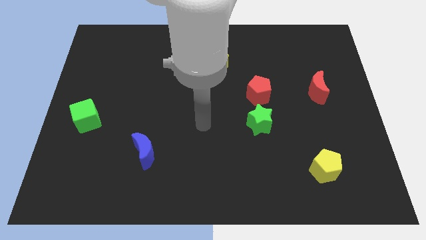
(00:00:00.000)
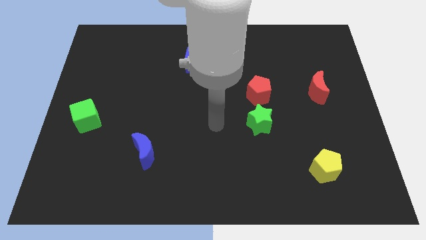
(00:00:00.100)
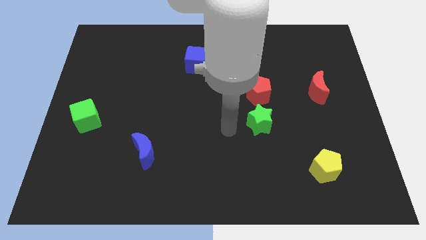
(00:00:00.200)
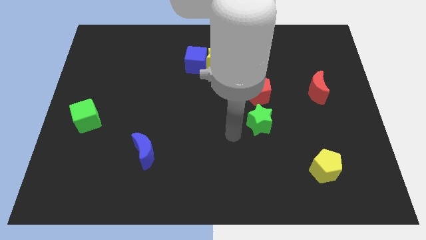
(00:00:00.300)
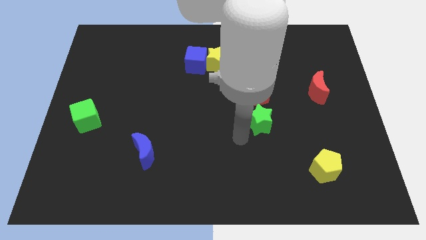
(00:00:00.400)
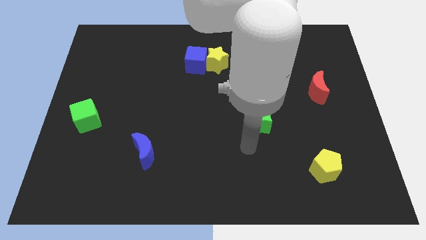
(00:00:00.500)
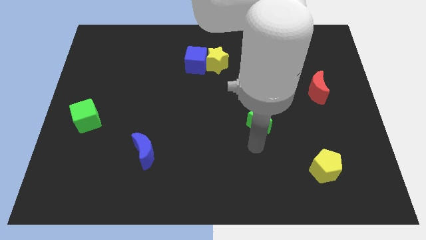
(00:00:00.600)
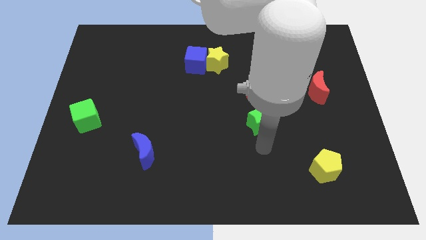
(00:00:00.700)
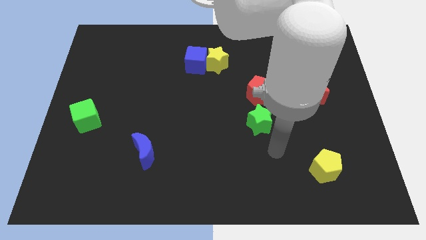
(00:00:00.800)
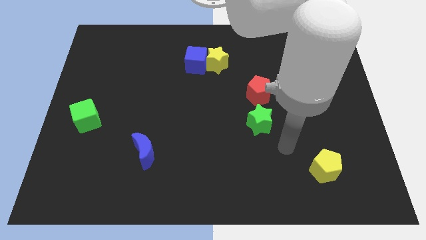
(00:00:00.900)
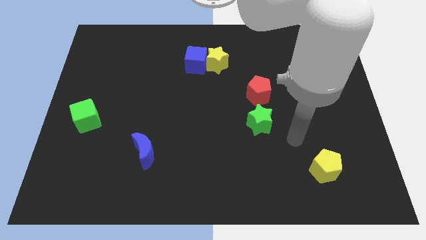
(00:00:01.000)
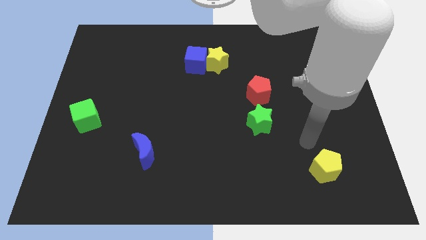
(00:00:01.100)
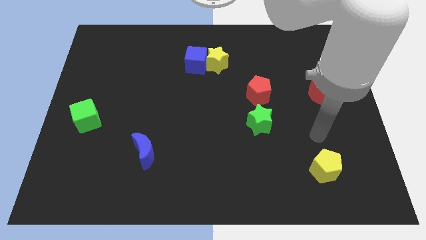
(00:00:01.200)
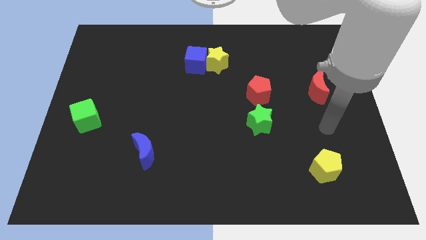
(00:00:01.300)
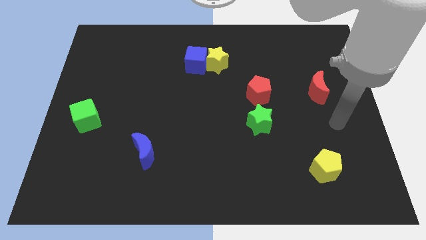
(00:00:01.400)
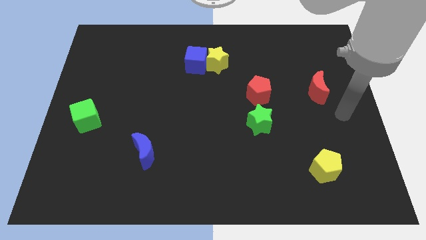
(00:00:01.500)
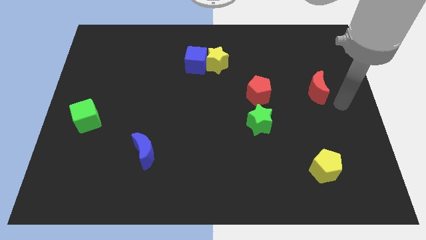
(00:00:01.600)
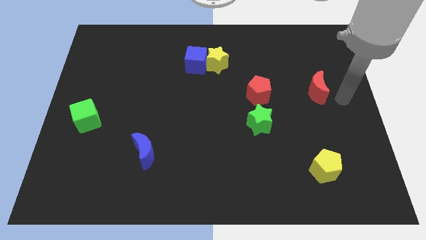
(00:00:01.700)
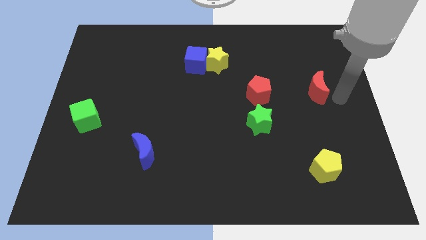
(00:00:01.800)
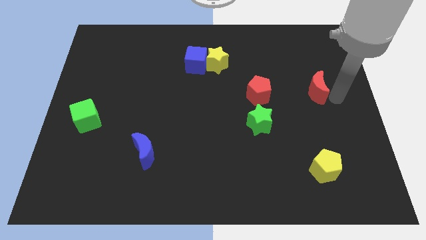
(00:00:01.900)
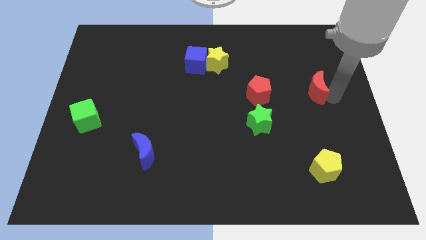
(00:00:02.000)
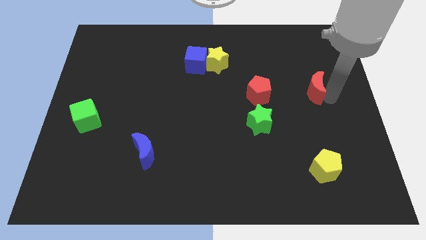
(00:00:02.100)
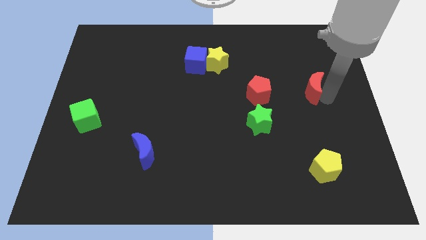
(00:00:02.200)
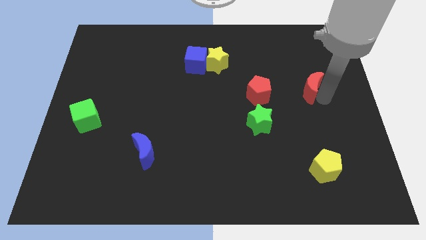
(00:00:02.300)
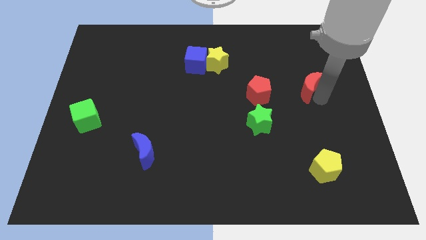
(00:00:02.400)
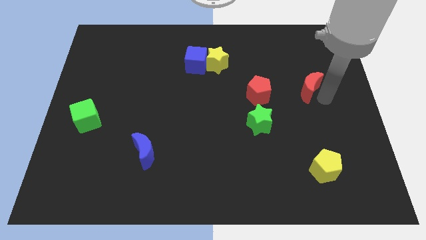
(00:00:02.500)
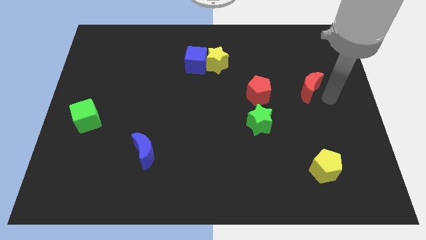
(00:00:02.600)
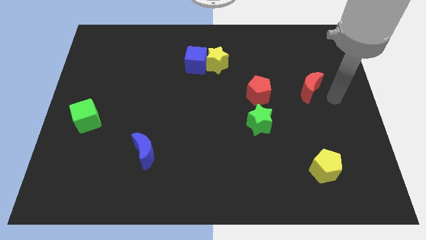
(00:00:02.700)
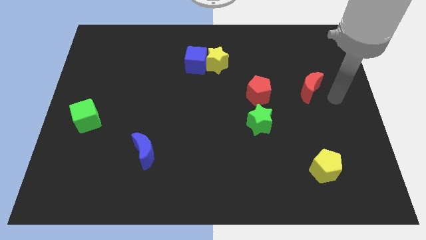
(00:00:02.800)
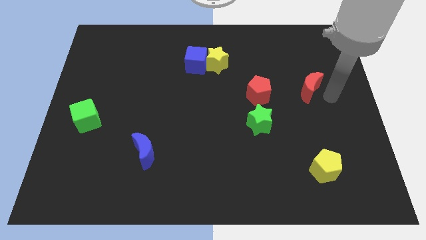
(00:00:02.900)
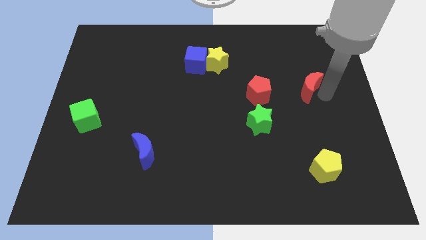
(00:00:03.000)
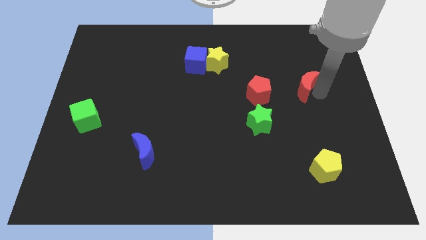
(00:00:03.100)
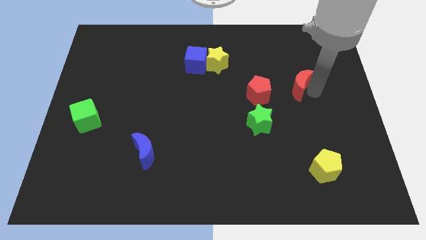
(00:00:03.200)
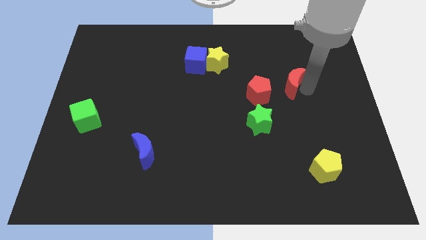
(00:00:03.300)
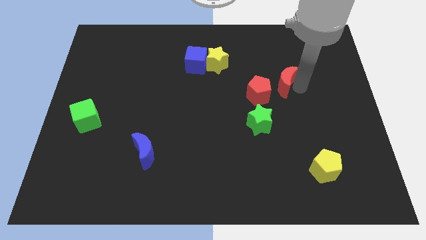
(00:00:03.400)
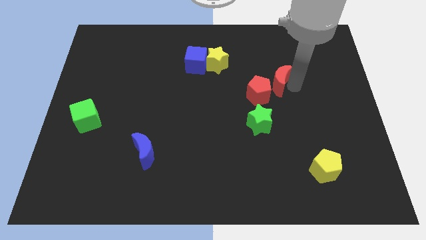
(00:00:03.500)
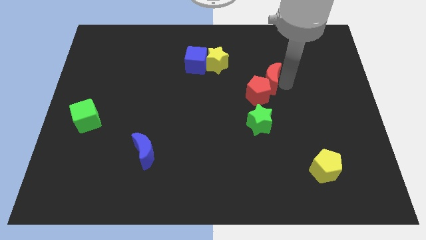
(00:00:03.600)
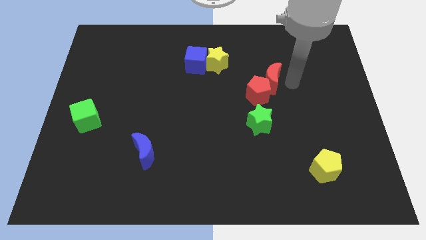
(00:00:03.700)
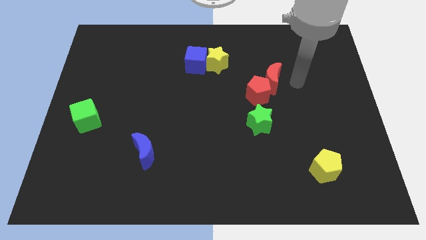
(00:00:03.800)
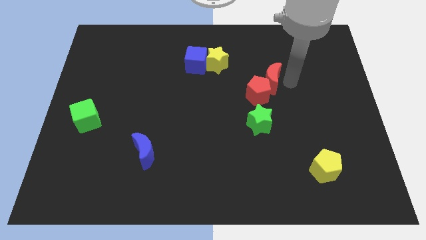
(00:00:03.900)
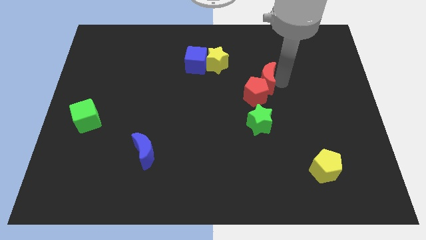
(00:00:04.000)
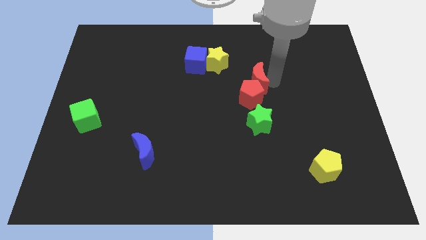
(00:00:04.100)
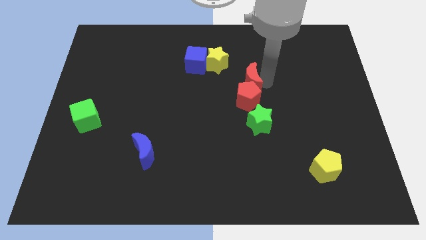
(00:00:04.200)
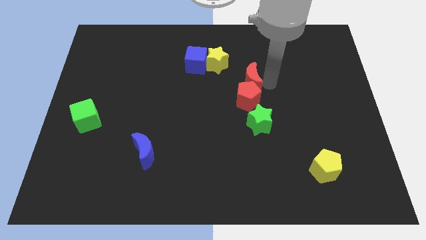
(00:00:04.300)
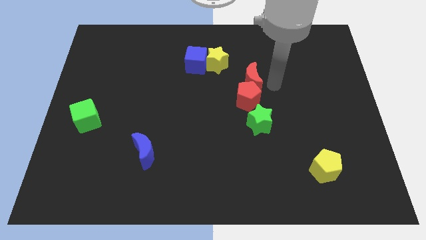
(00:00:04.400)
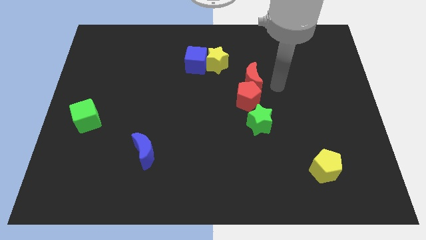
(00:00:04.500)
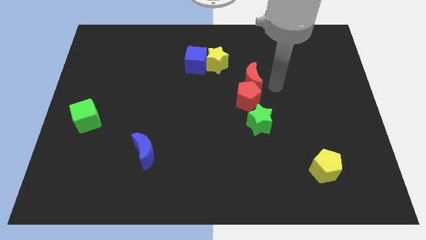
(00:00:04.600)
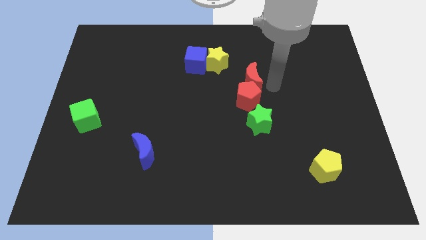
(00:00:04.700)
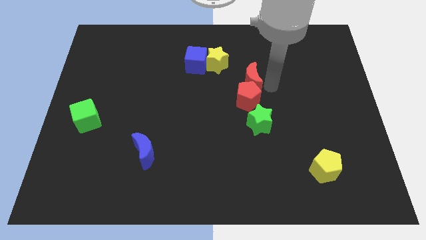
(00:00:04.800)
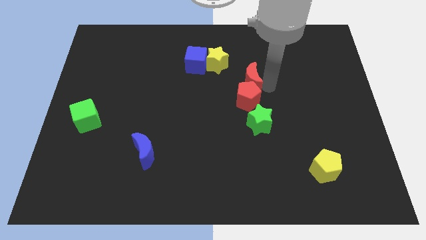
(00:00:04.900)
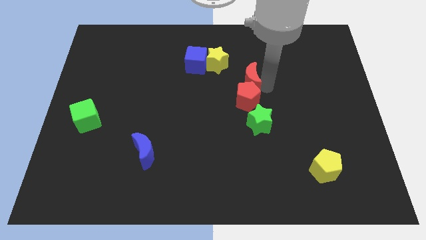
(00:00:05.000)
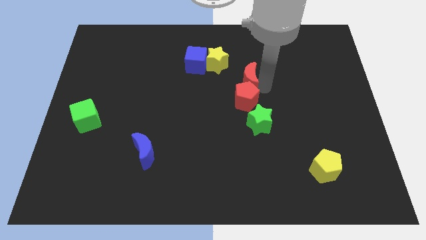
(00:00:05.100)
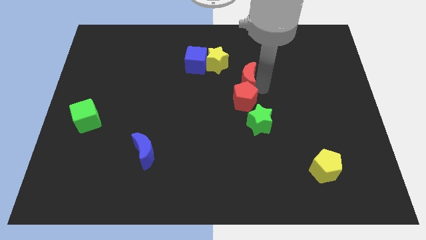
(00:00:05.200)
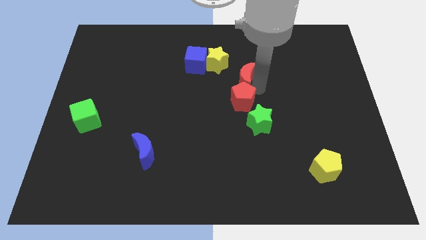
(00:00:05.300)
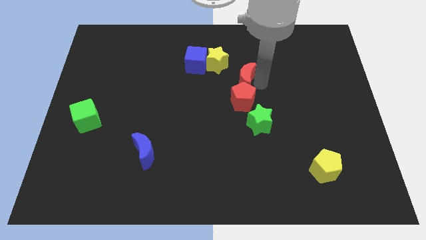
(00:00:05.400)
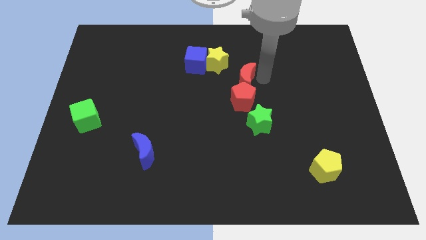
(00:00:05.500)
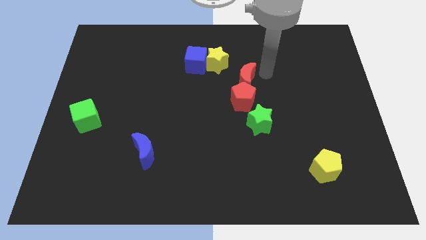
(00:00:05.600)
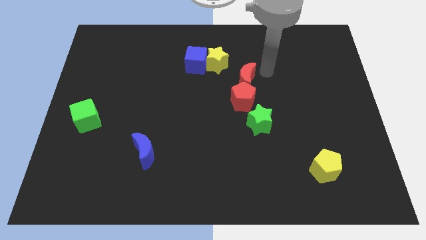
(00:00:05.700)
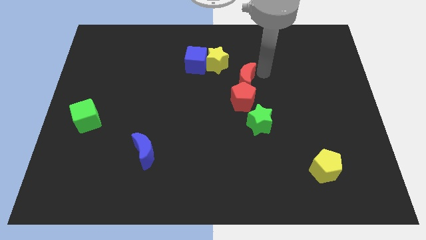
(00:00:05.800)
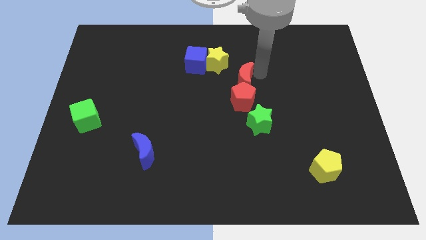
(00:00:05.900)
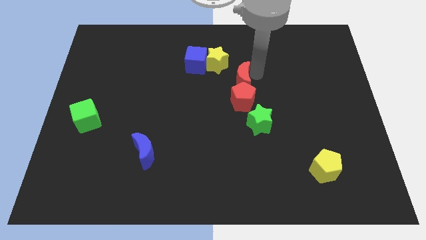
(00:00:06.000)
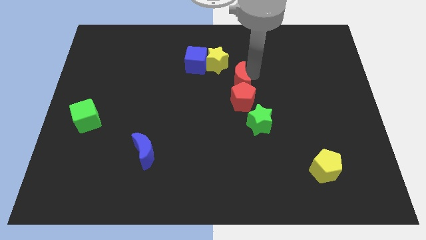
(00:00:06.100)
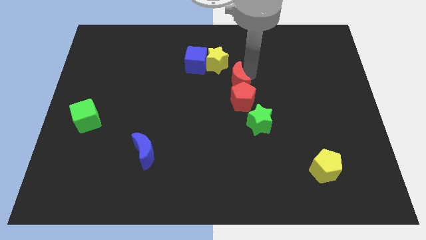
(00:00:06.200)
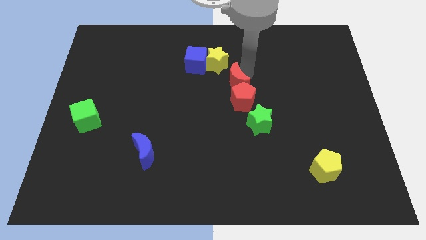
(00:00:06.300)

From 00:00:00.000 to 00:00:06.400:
push the red moon to the bottom side of the yellow star

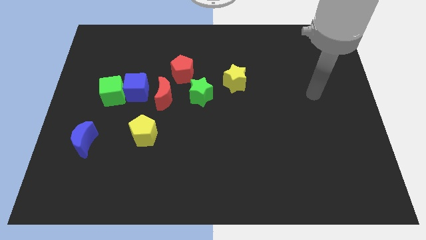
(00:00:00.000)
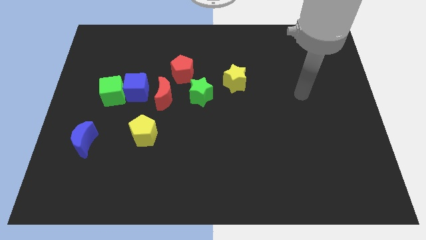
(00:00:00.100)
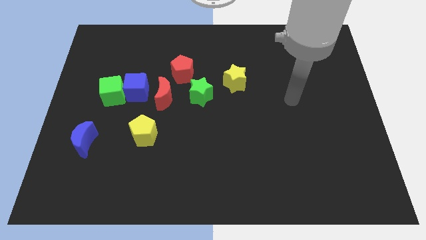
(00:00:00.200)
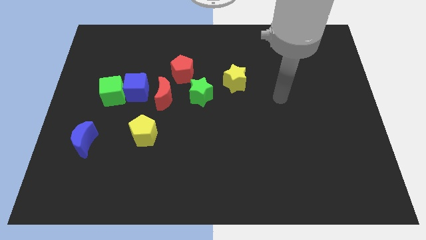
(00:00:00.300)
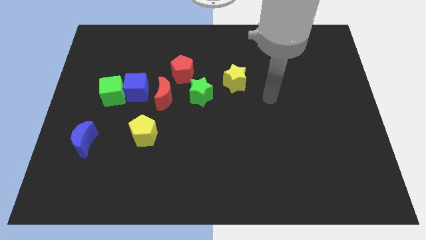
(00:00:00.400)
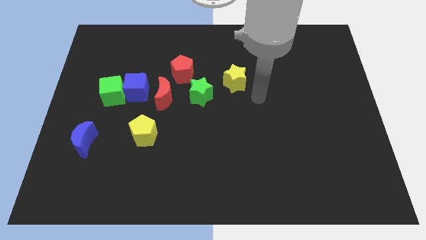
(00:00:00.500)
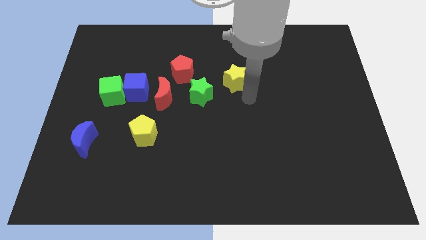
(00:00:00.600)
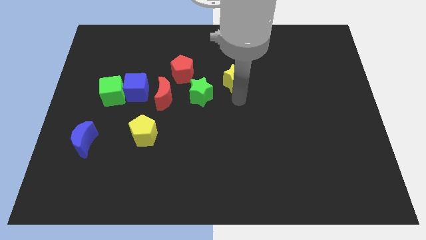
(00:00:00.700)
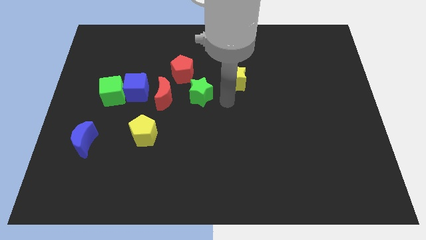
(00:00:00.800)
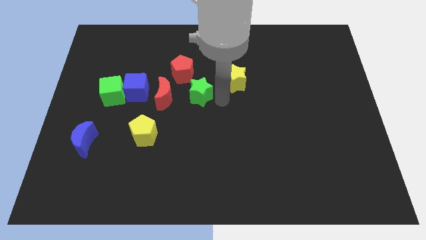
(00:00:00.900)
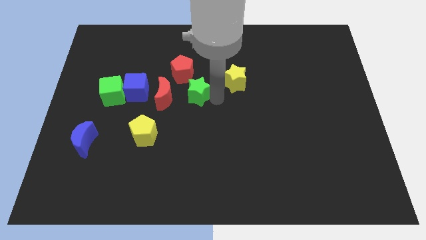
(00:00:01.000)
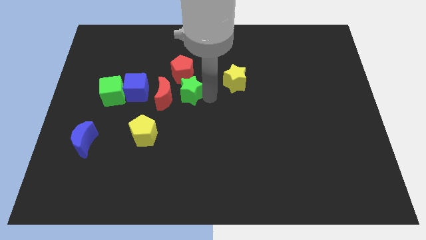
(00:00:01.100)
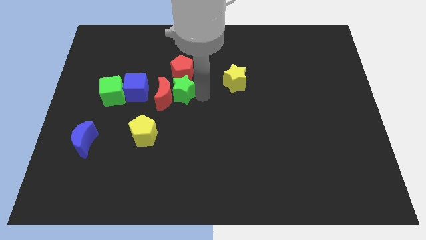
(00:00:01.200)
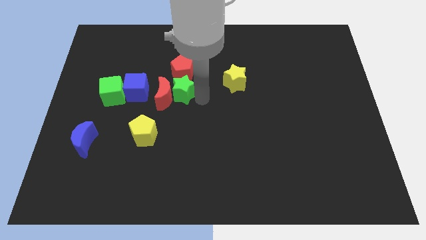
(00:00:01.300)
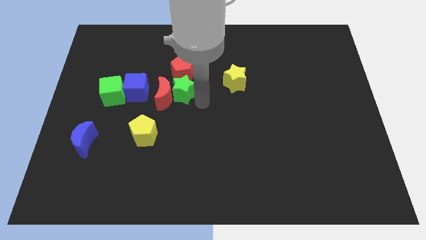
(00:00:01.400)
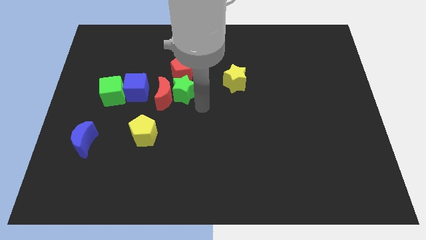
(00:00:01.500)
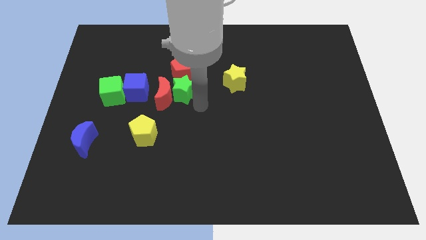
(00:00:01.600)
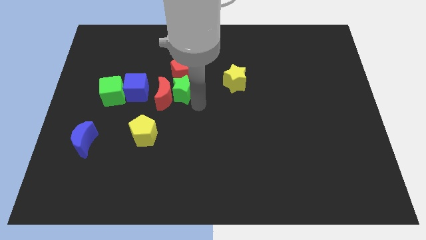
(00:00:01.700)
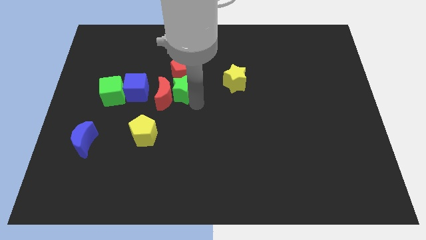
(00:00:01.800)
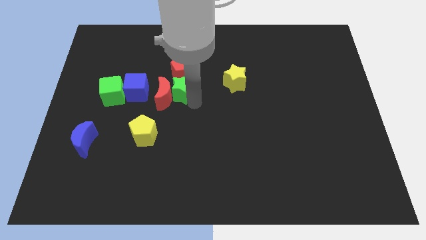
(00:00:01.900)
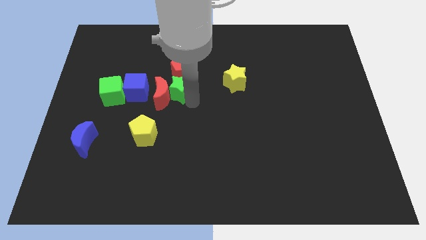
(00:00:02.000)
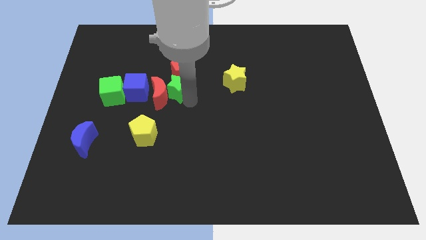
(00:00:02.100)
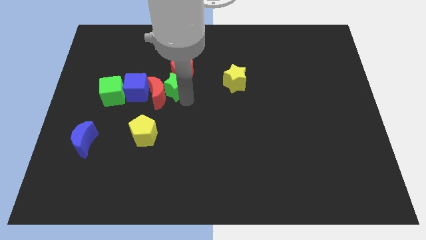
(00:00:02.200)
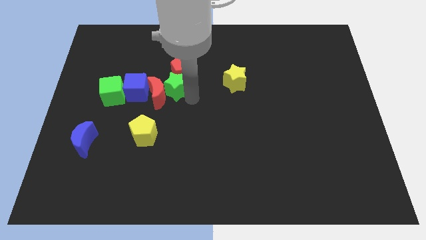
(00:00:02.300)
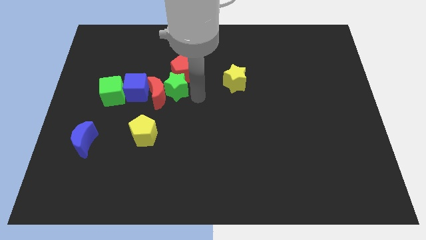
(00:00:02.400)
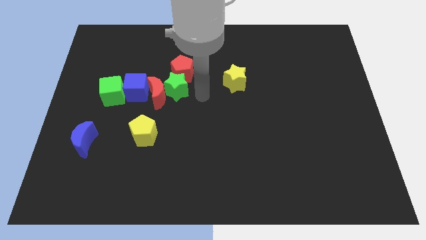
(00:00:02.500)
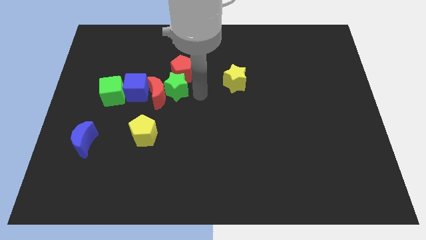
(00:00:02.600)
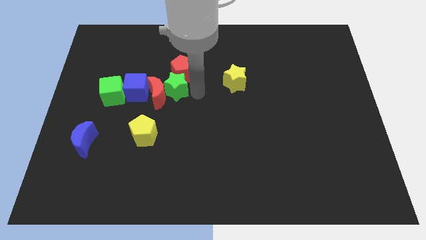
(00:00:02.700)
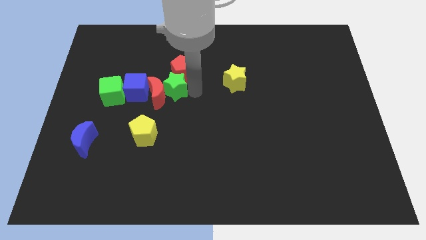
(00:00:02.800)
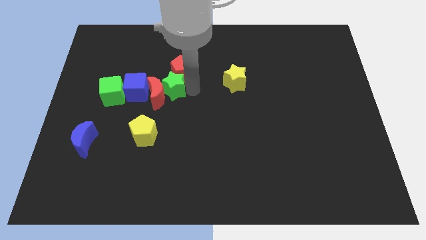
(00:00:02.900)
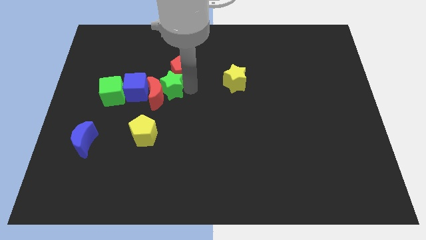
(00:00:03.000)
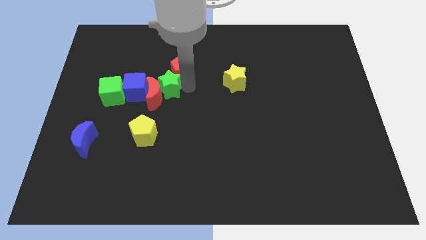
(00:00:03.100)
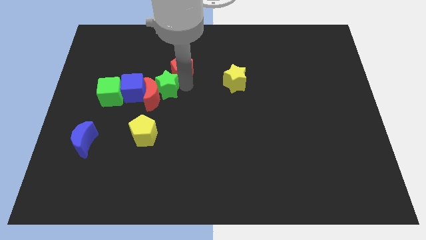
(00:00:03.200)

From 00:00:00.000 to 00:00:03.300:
put the green star above the yellow pentagon
